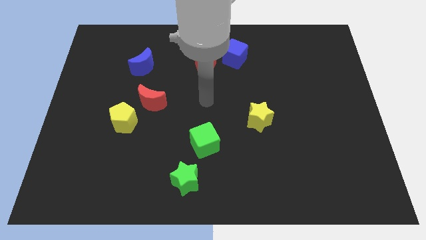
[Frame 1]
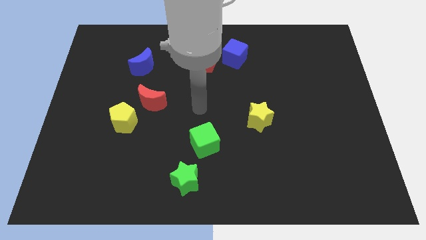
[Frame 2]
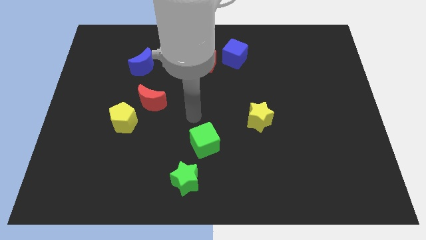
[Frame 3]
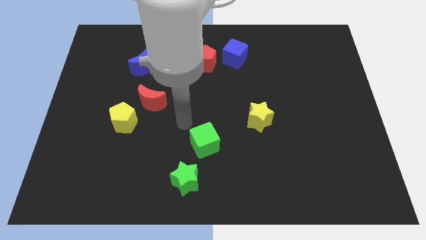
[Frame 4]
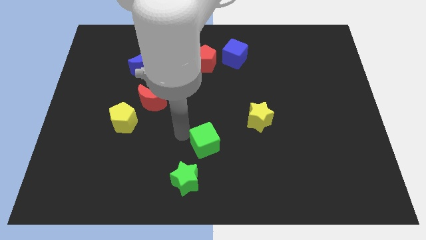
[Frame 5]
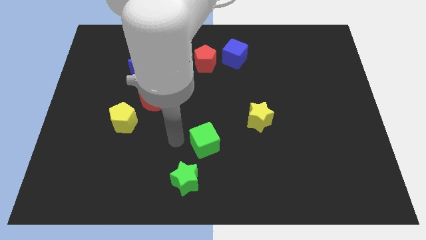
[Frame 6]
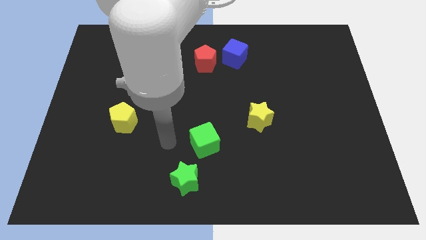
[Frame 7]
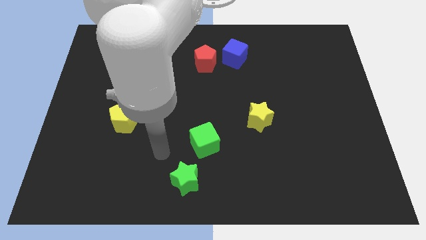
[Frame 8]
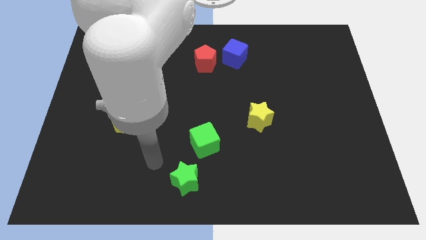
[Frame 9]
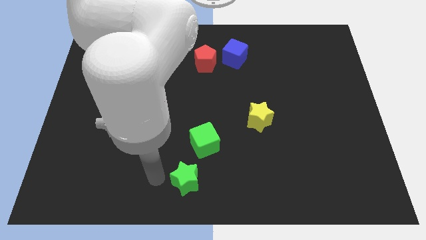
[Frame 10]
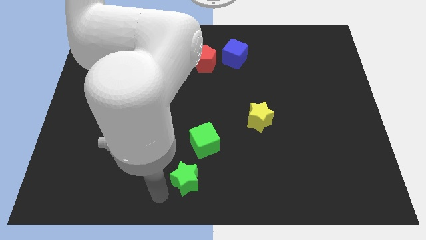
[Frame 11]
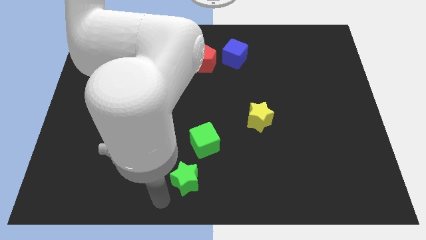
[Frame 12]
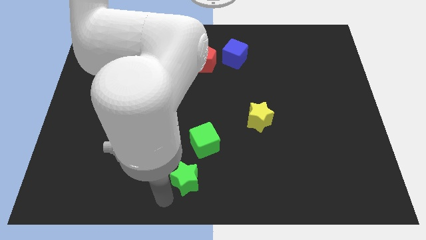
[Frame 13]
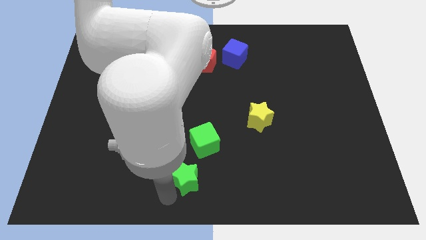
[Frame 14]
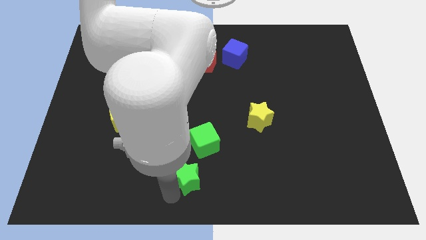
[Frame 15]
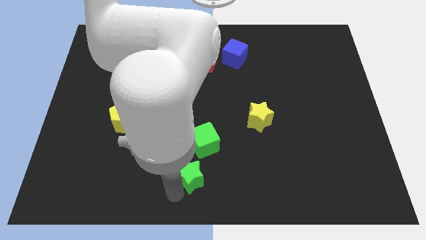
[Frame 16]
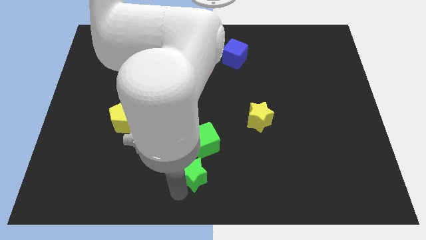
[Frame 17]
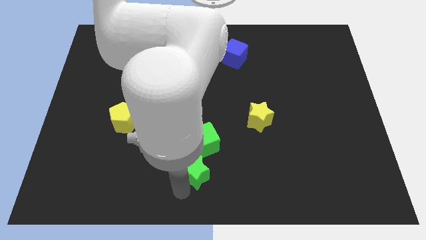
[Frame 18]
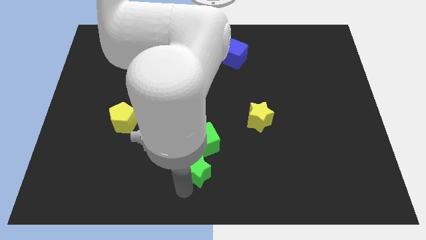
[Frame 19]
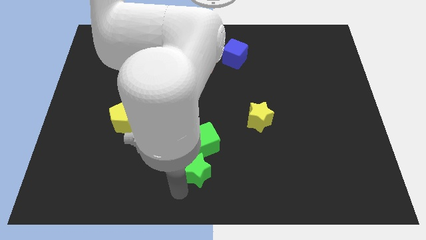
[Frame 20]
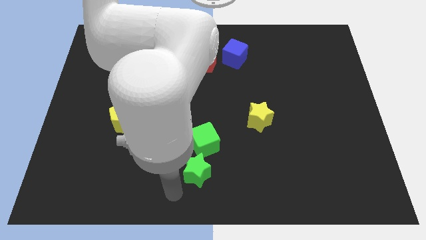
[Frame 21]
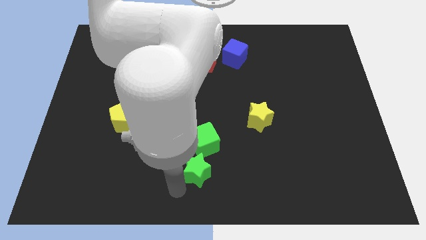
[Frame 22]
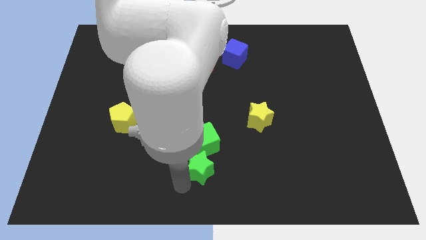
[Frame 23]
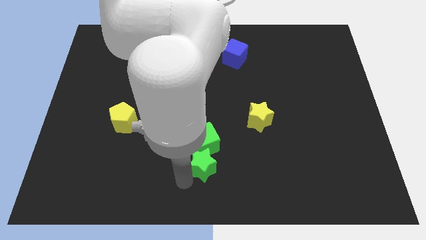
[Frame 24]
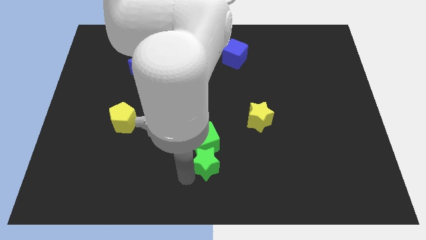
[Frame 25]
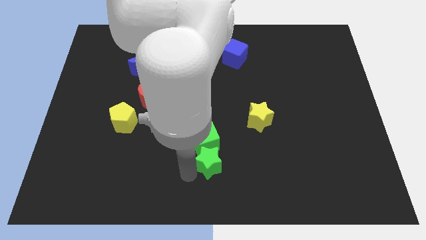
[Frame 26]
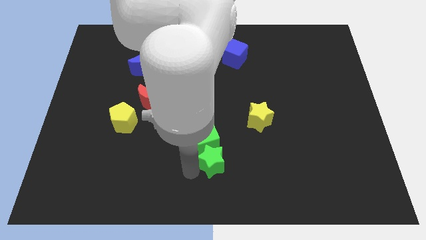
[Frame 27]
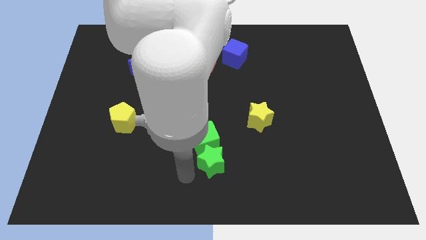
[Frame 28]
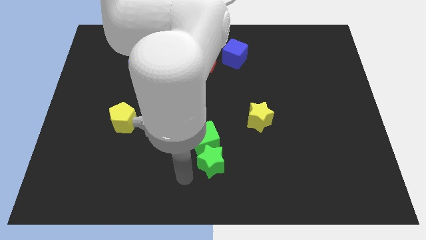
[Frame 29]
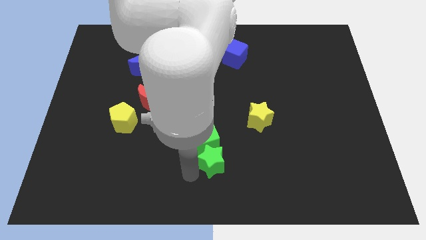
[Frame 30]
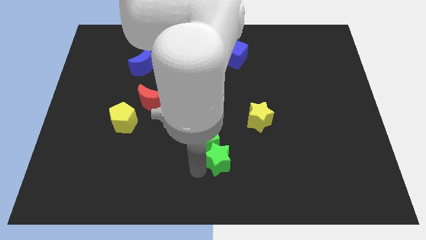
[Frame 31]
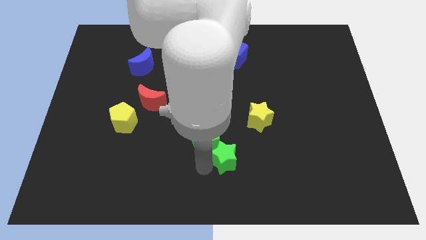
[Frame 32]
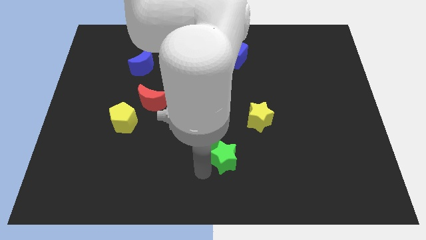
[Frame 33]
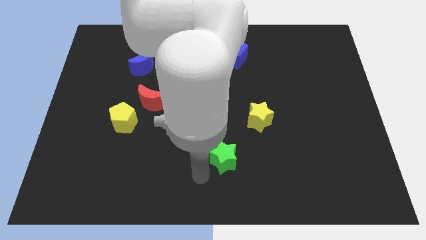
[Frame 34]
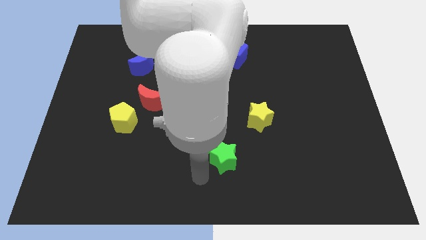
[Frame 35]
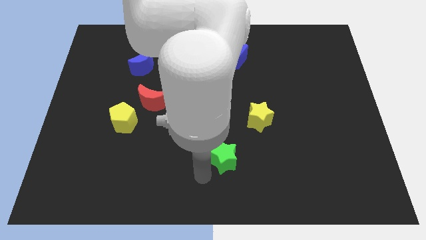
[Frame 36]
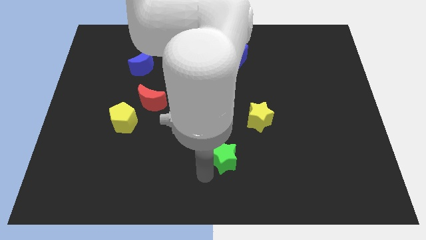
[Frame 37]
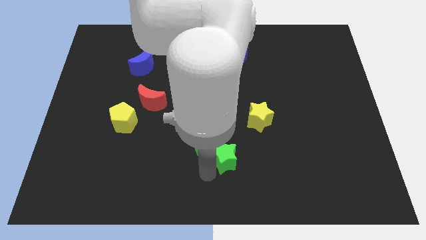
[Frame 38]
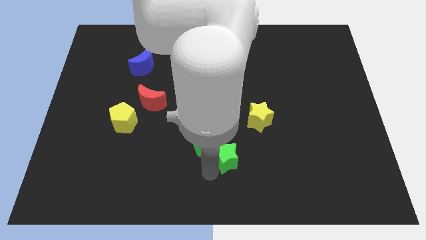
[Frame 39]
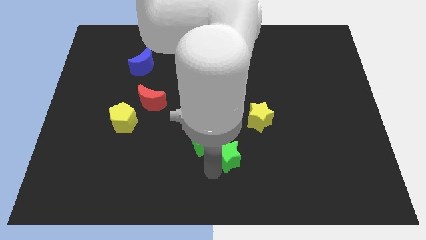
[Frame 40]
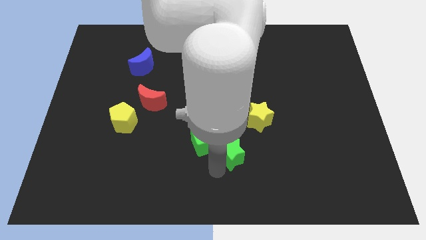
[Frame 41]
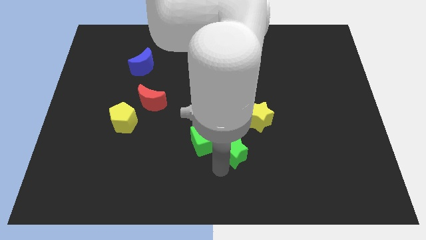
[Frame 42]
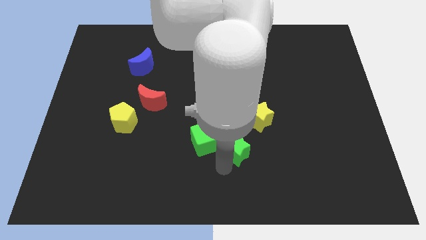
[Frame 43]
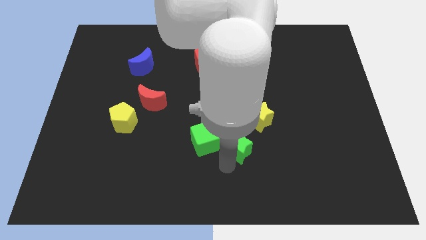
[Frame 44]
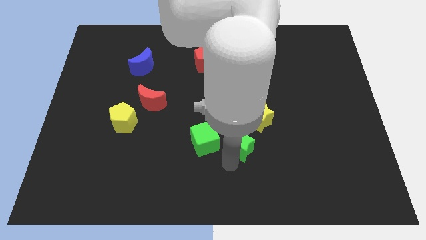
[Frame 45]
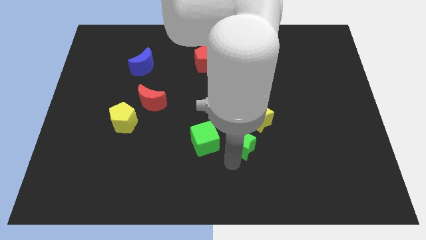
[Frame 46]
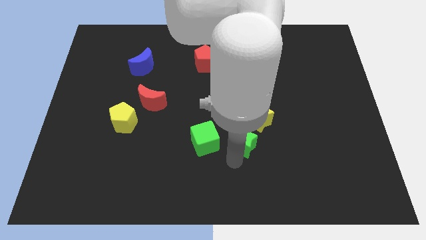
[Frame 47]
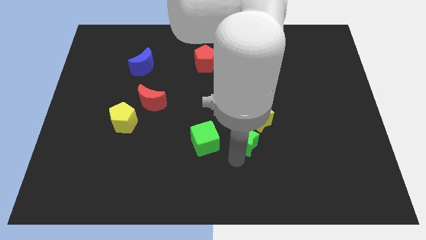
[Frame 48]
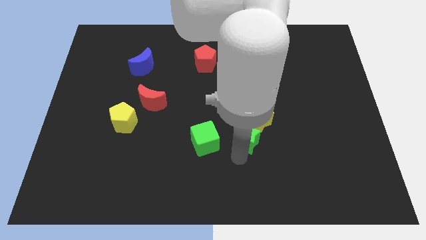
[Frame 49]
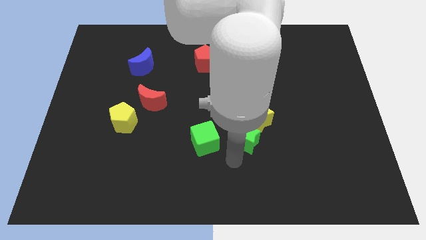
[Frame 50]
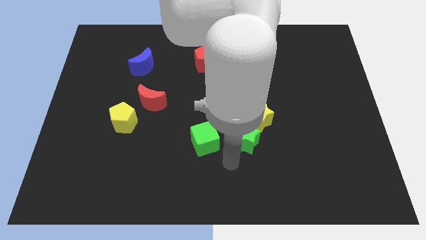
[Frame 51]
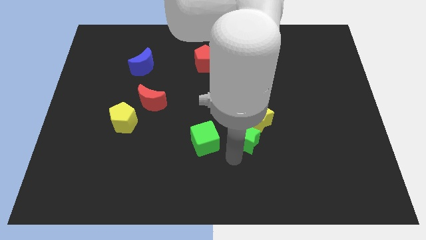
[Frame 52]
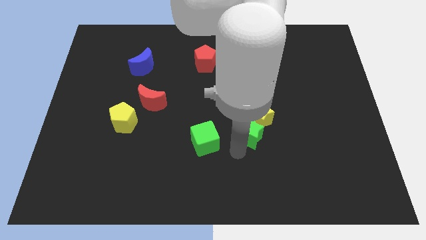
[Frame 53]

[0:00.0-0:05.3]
slide the green star close to the yellow star

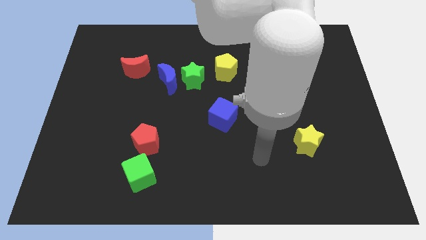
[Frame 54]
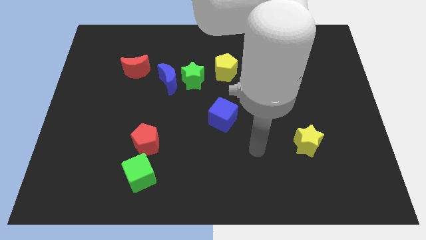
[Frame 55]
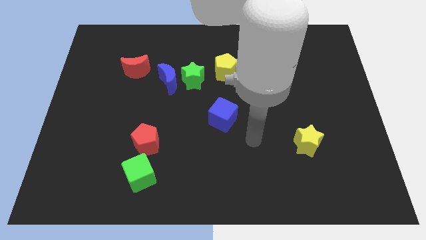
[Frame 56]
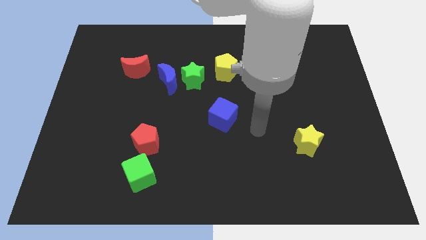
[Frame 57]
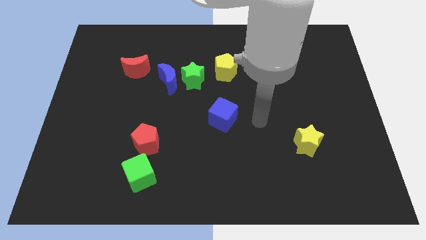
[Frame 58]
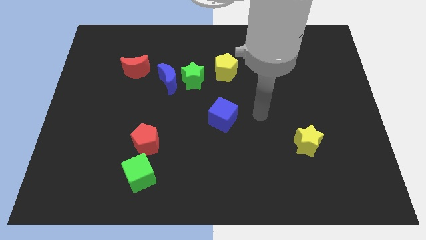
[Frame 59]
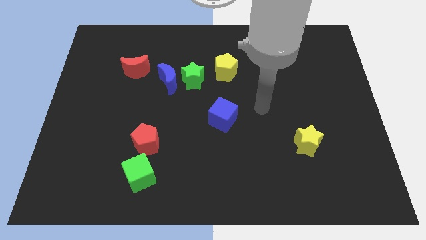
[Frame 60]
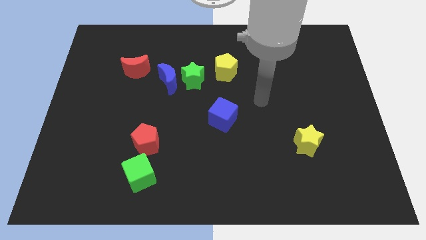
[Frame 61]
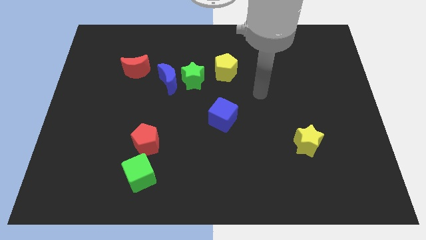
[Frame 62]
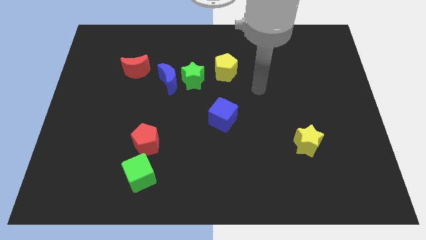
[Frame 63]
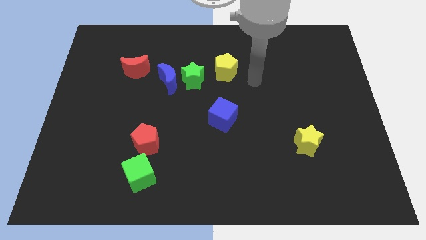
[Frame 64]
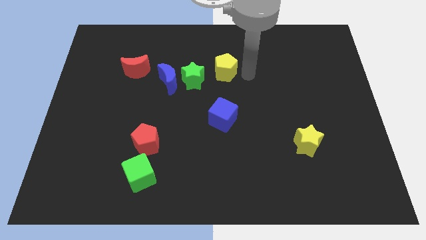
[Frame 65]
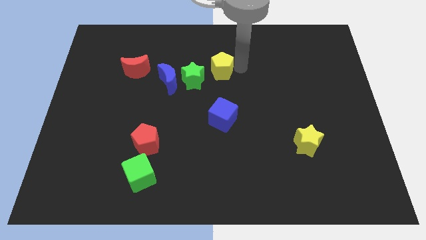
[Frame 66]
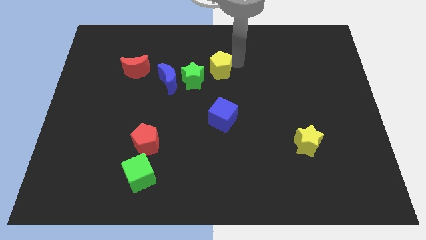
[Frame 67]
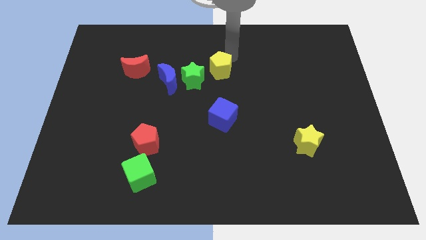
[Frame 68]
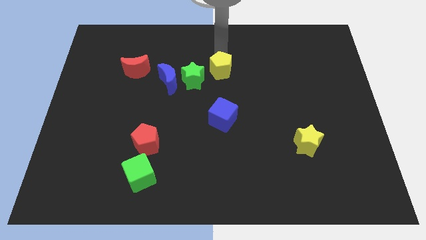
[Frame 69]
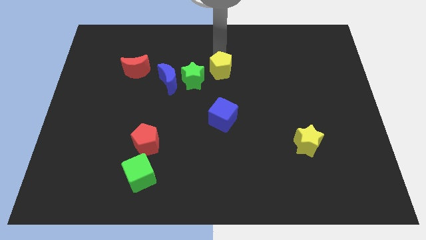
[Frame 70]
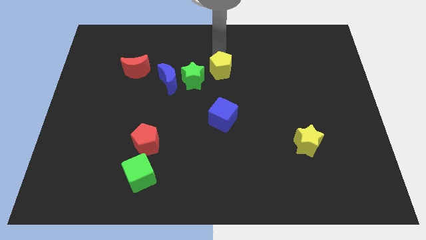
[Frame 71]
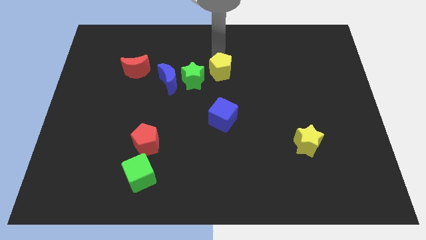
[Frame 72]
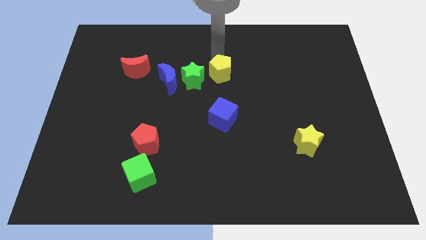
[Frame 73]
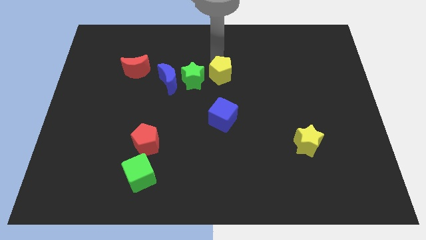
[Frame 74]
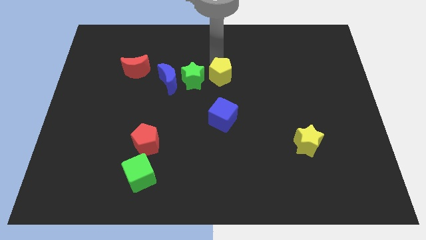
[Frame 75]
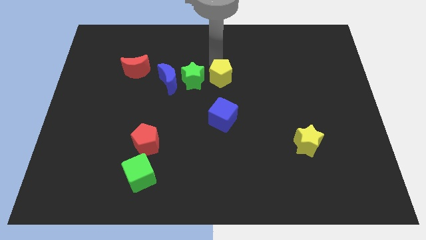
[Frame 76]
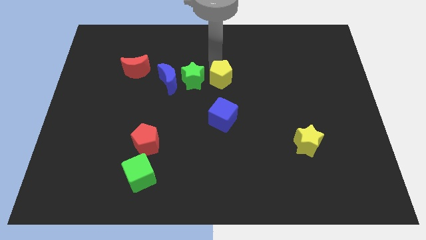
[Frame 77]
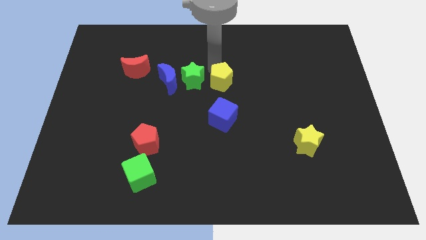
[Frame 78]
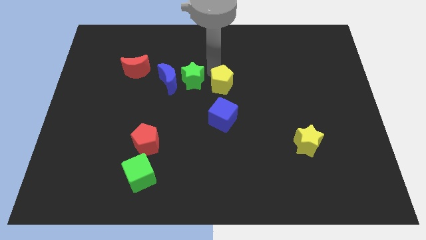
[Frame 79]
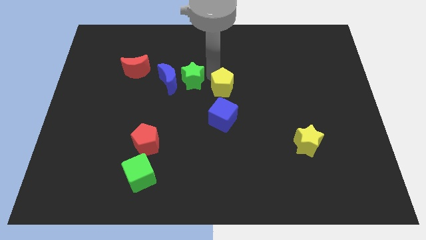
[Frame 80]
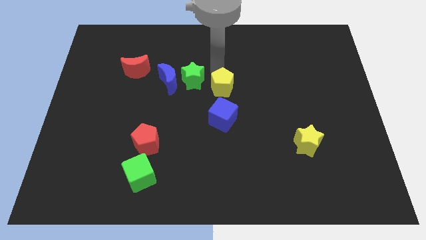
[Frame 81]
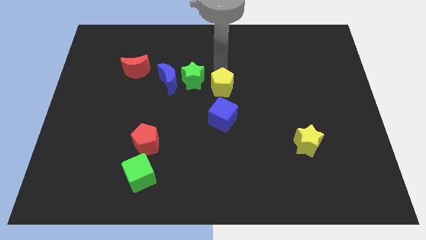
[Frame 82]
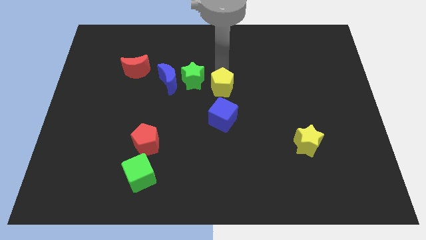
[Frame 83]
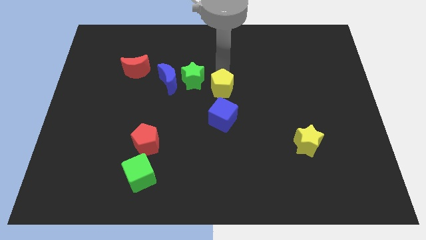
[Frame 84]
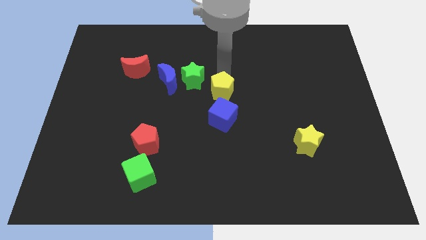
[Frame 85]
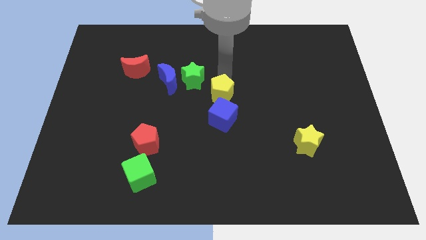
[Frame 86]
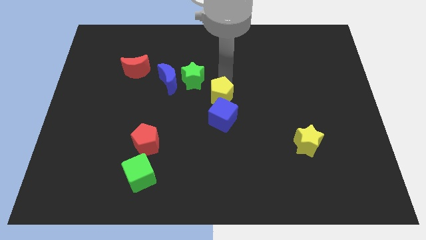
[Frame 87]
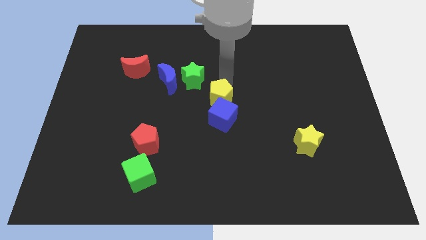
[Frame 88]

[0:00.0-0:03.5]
move the yellow pentagon next to the blue cube
